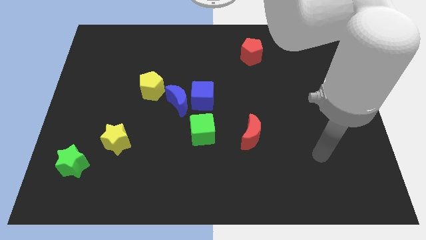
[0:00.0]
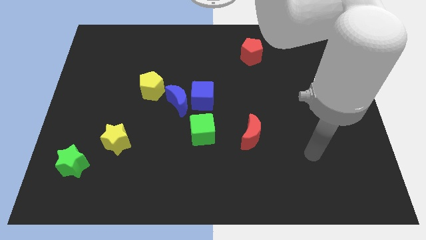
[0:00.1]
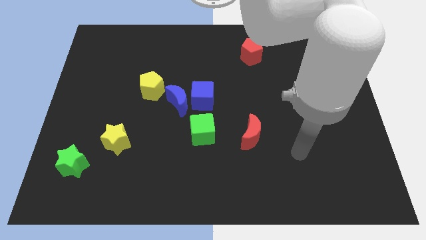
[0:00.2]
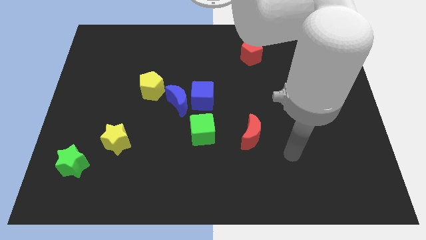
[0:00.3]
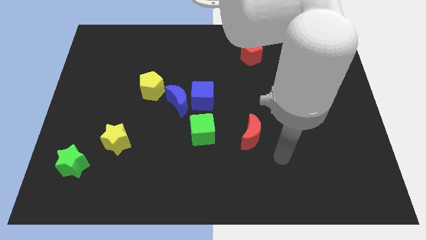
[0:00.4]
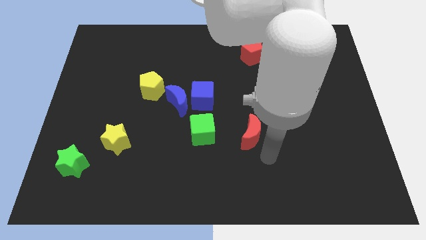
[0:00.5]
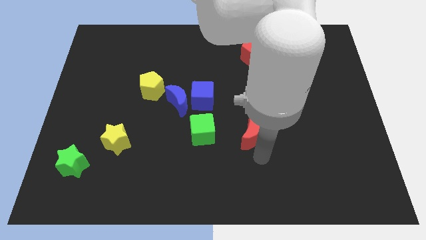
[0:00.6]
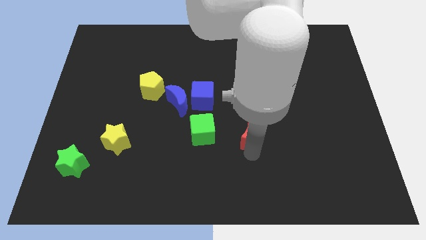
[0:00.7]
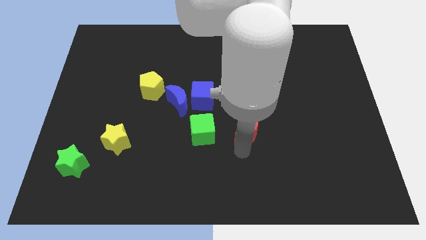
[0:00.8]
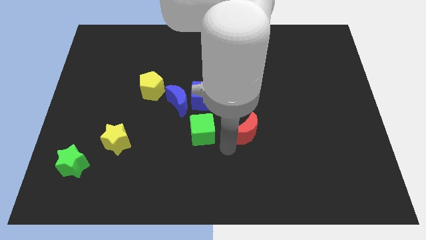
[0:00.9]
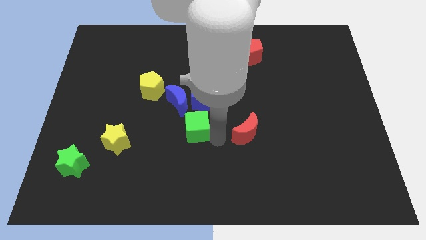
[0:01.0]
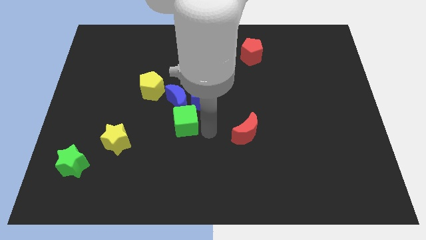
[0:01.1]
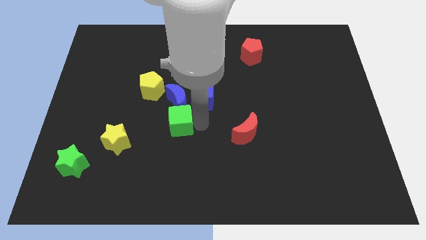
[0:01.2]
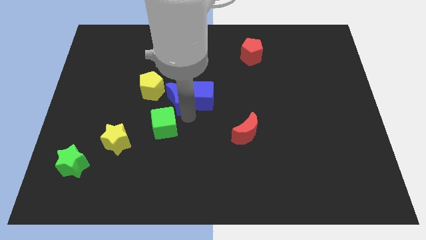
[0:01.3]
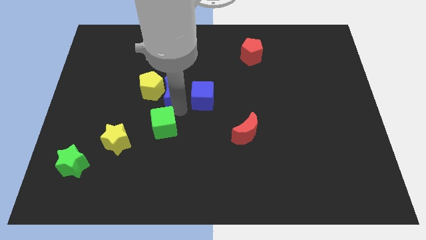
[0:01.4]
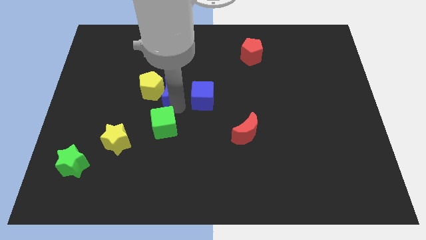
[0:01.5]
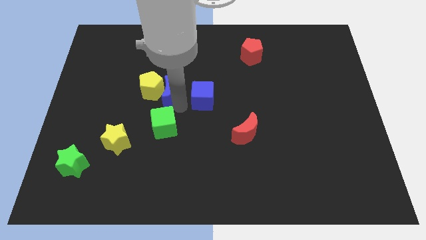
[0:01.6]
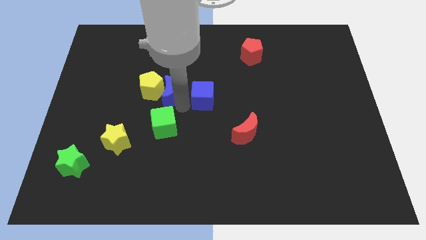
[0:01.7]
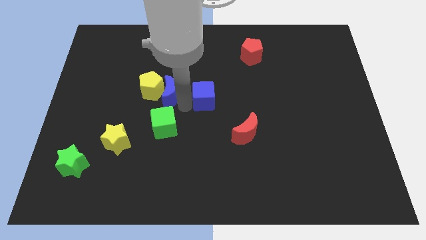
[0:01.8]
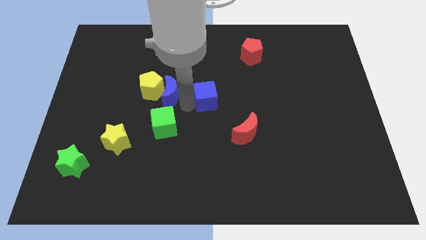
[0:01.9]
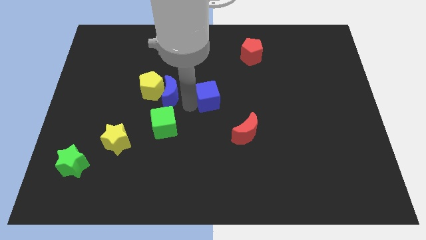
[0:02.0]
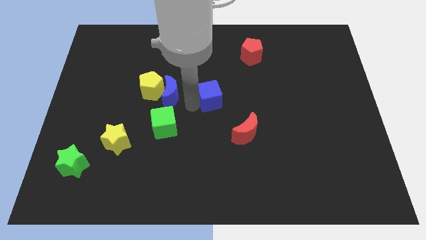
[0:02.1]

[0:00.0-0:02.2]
move the blue cube away from the blue moon and green cube

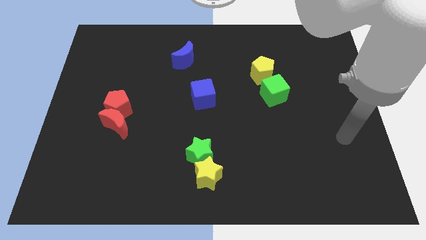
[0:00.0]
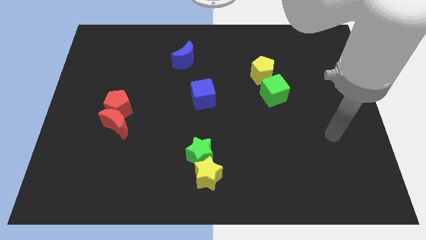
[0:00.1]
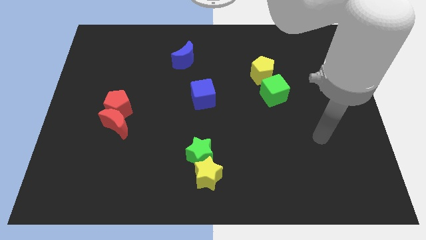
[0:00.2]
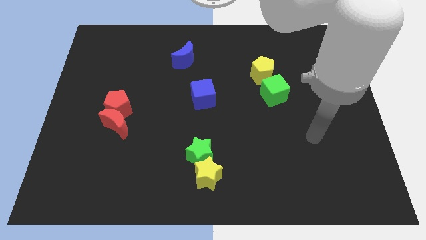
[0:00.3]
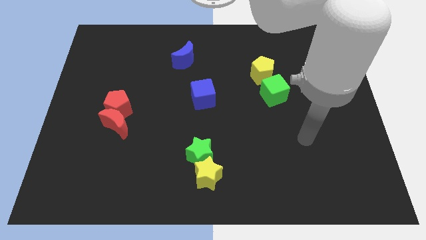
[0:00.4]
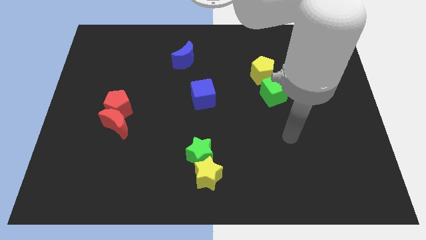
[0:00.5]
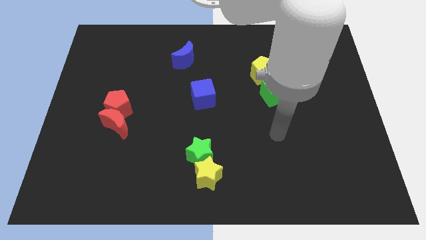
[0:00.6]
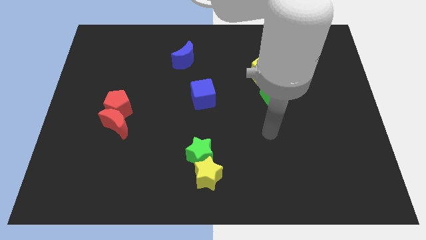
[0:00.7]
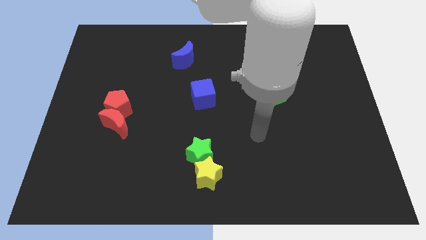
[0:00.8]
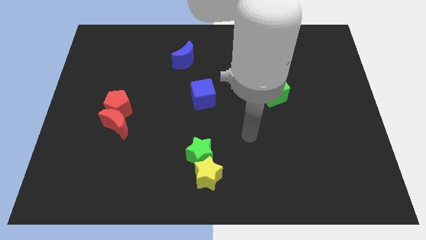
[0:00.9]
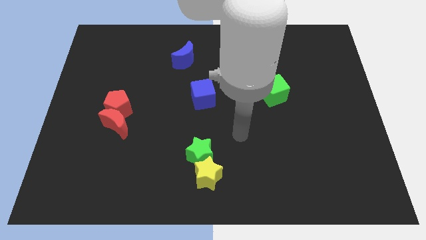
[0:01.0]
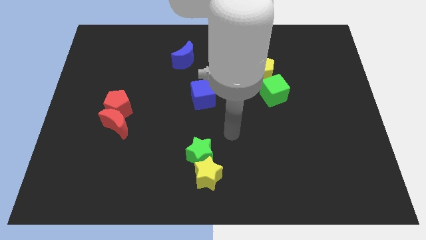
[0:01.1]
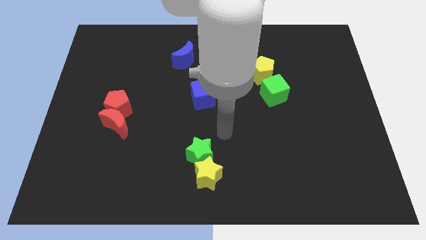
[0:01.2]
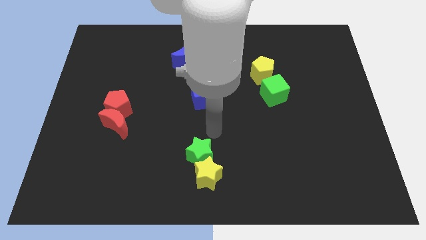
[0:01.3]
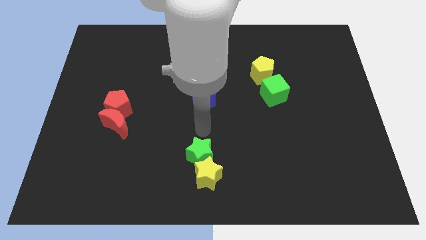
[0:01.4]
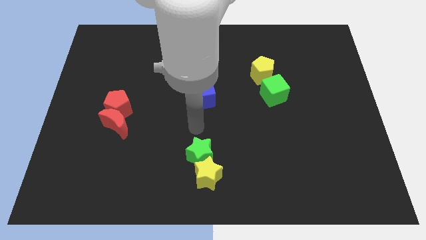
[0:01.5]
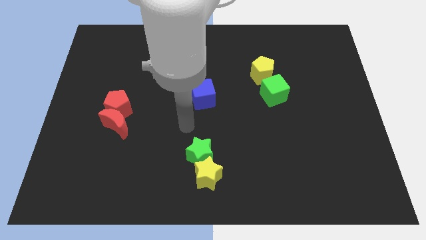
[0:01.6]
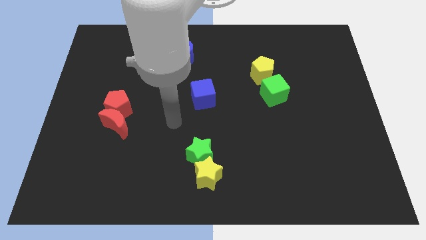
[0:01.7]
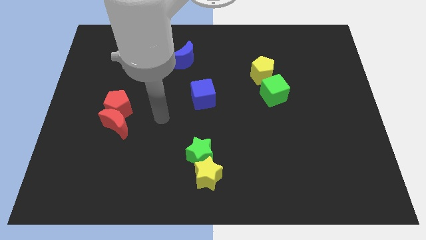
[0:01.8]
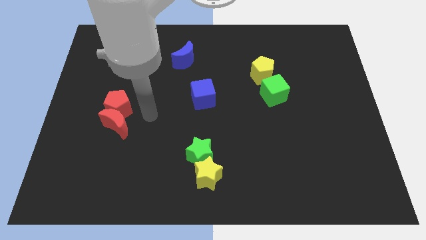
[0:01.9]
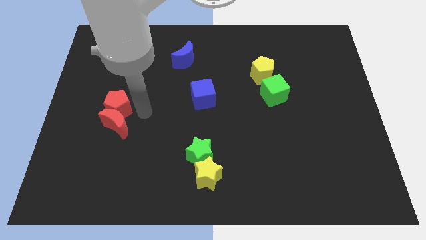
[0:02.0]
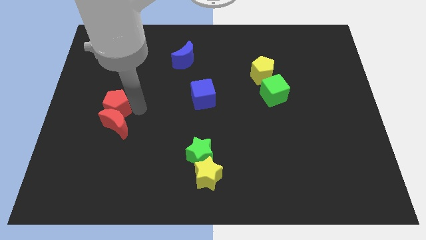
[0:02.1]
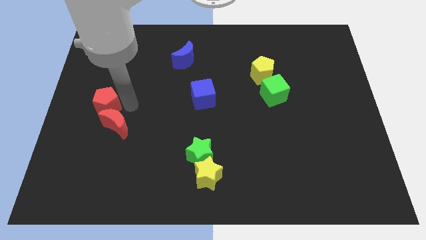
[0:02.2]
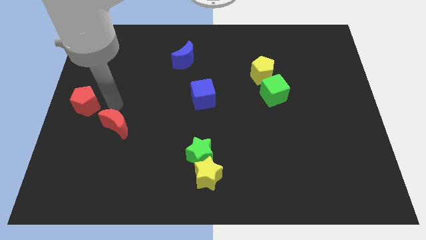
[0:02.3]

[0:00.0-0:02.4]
move the red moon away from the red pentagon

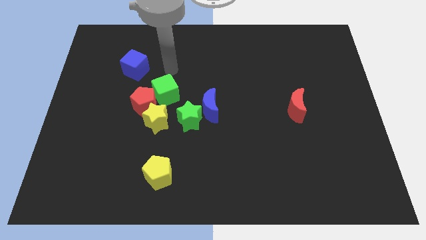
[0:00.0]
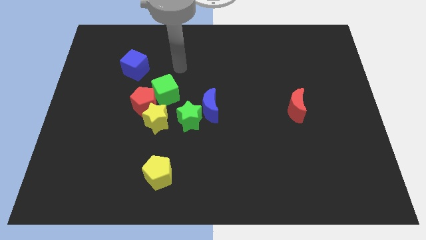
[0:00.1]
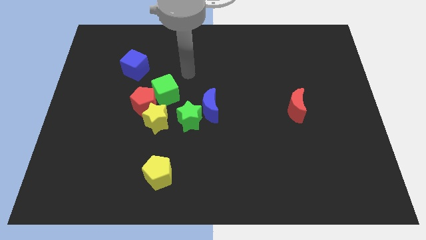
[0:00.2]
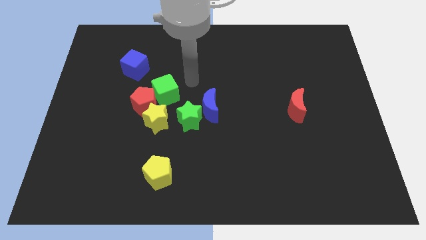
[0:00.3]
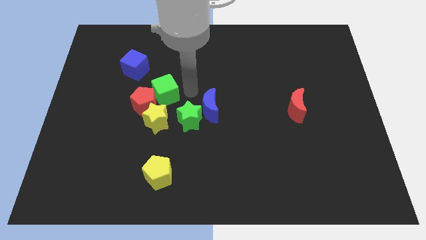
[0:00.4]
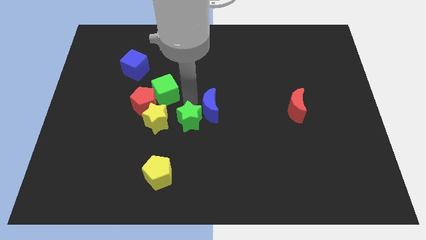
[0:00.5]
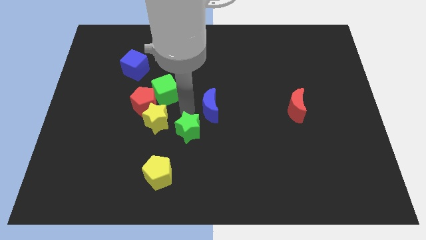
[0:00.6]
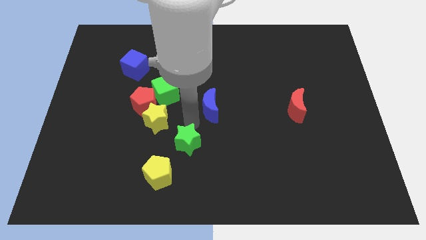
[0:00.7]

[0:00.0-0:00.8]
pull the blue moon apart from the green star

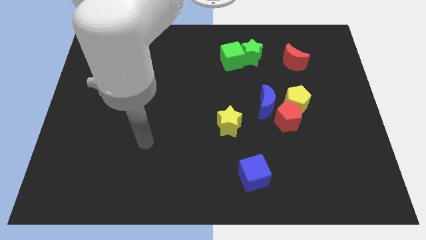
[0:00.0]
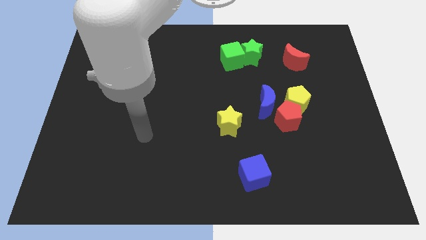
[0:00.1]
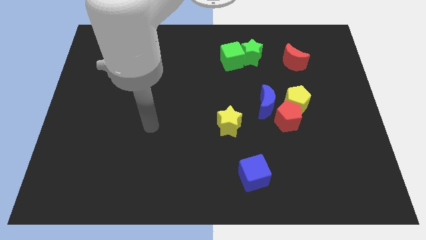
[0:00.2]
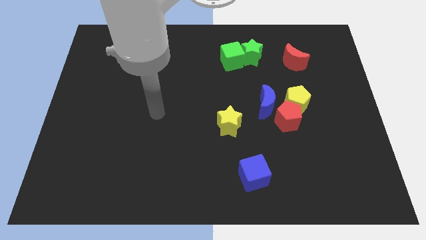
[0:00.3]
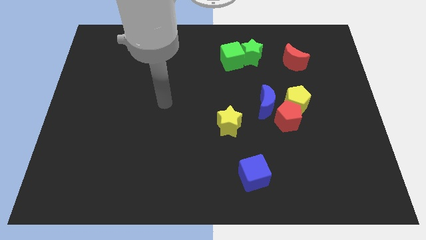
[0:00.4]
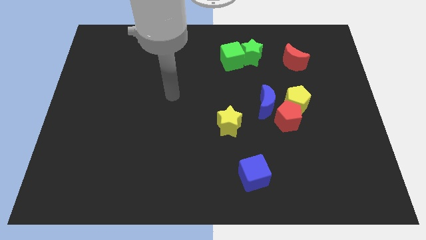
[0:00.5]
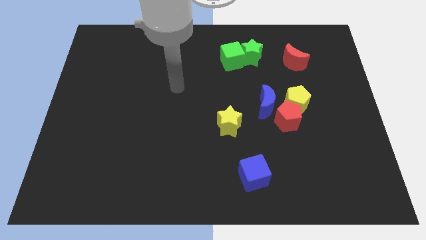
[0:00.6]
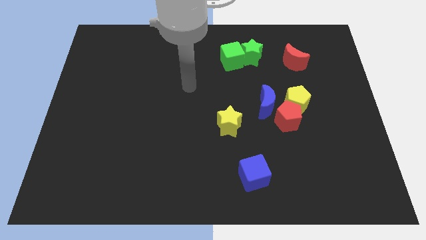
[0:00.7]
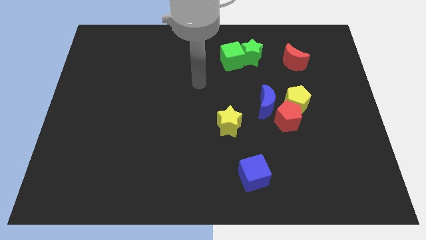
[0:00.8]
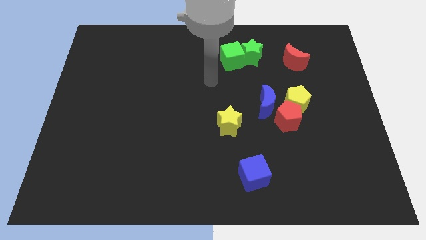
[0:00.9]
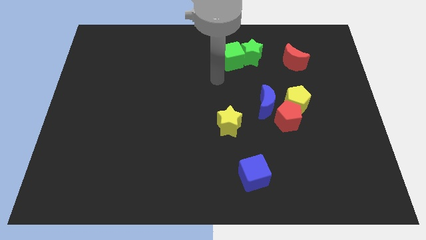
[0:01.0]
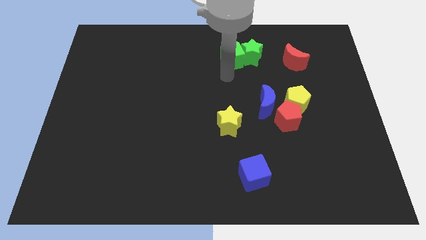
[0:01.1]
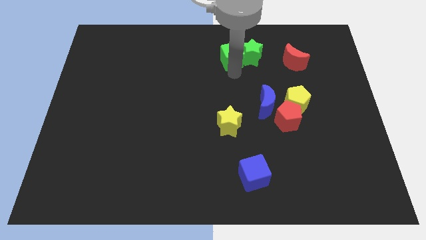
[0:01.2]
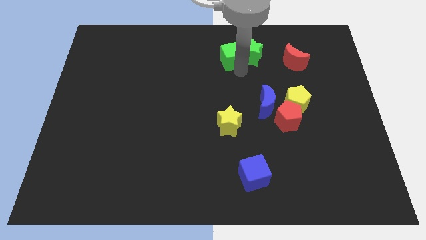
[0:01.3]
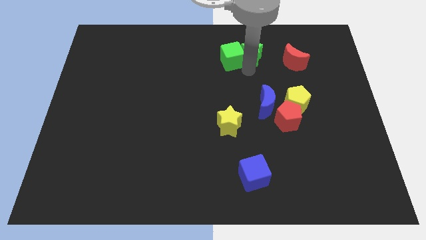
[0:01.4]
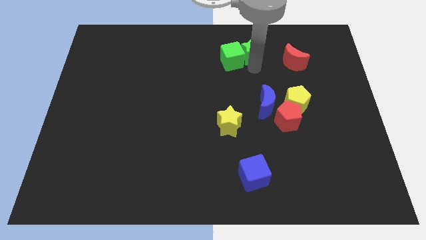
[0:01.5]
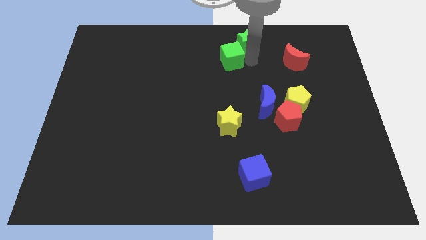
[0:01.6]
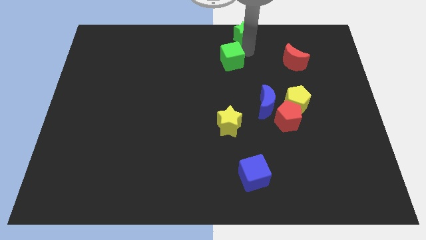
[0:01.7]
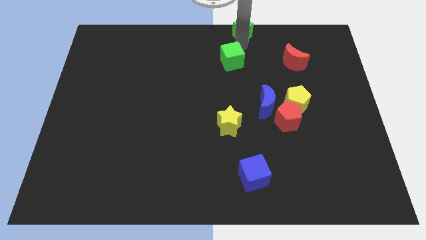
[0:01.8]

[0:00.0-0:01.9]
move the green cube away from the green star

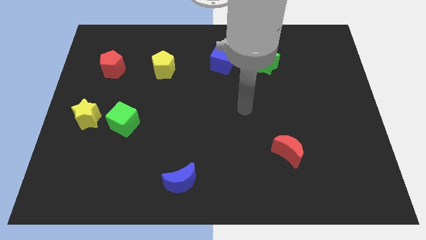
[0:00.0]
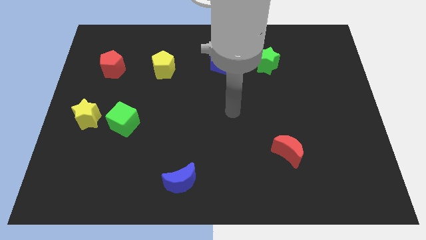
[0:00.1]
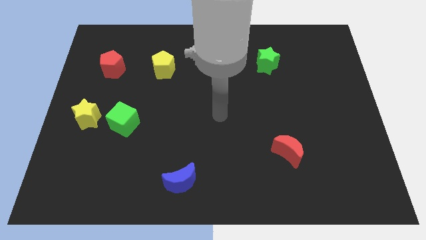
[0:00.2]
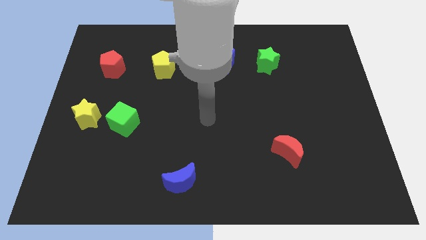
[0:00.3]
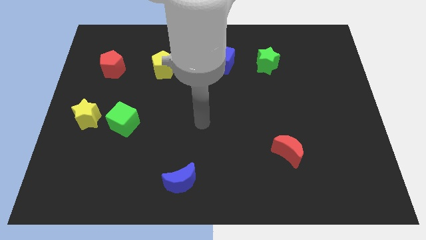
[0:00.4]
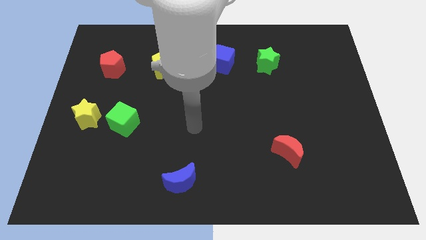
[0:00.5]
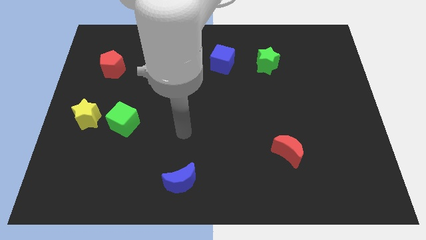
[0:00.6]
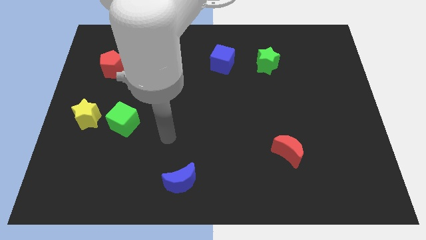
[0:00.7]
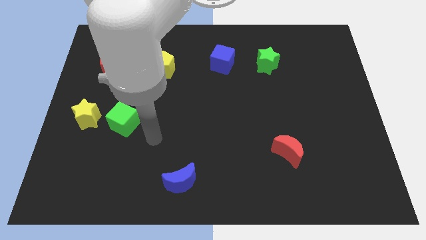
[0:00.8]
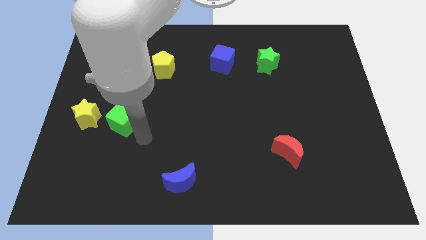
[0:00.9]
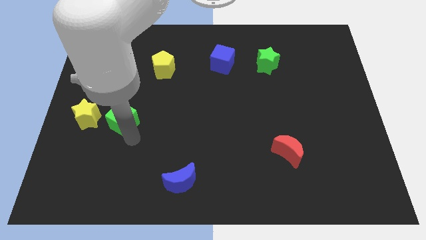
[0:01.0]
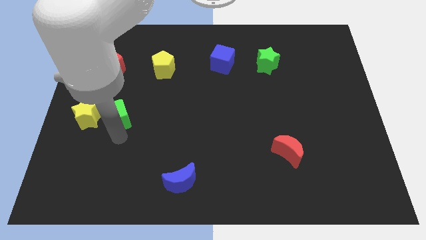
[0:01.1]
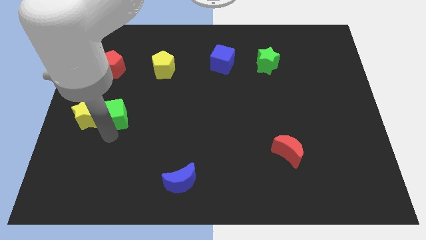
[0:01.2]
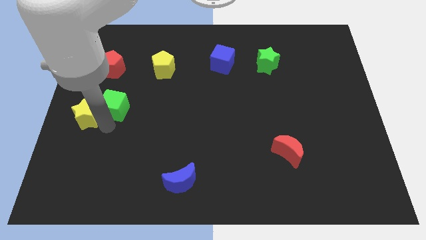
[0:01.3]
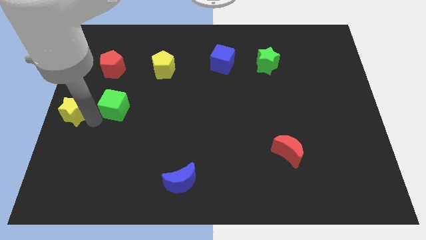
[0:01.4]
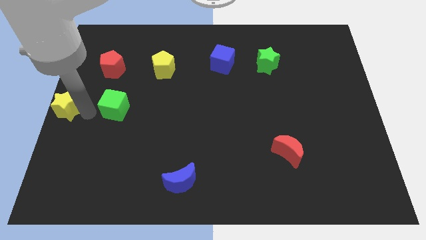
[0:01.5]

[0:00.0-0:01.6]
move the green cube away from the yellow star

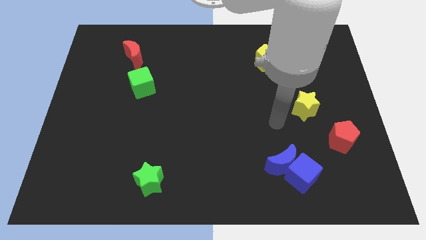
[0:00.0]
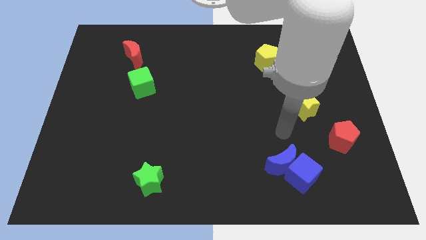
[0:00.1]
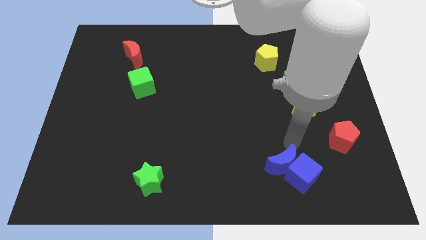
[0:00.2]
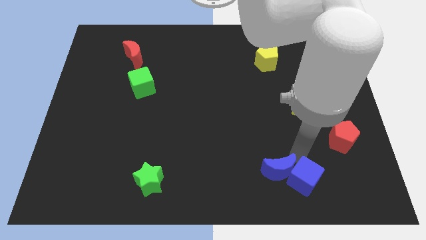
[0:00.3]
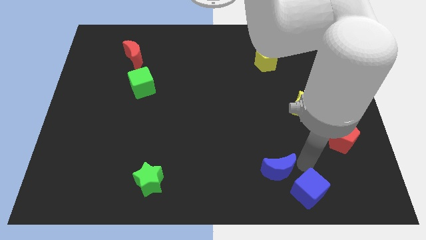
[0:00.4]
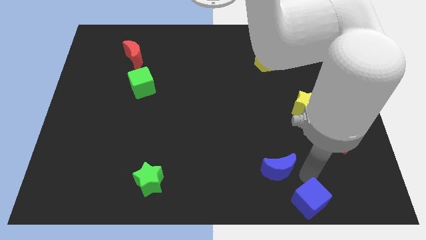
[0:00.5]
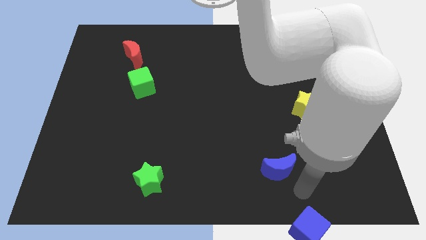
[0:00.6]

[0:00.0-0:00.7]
move the blue moon away from the blue cube
